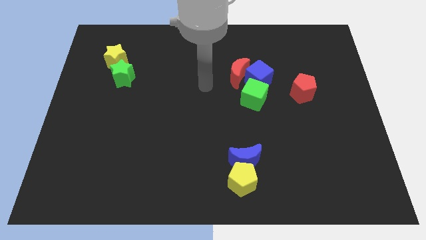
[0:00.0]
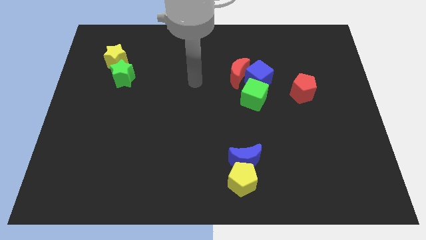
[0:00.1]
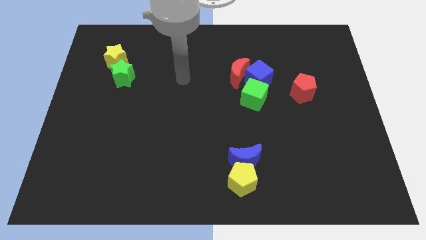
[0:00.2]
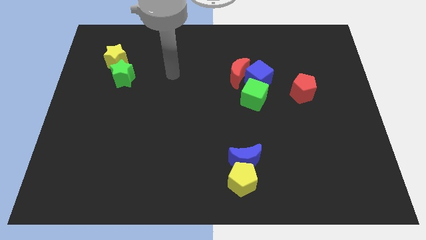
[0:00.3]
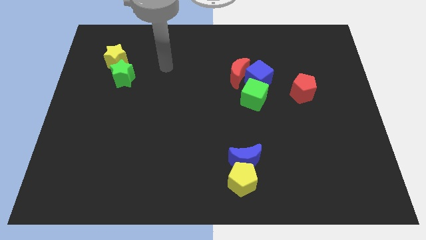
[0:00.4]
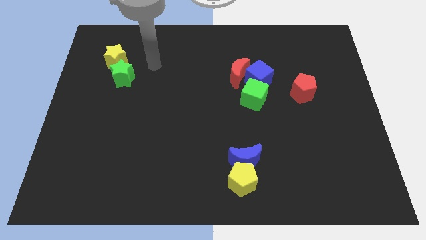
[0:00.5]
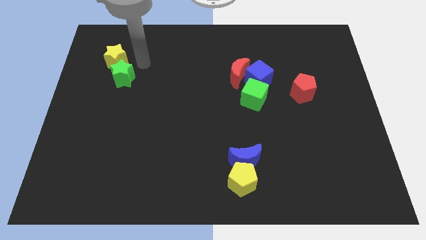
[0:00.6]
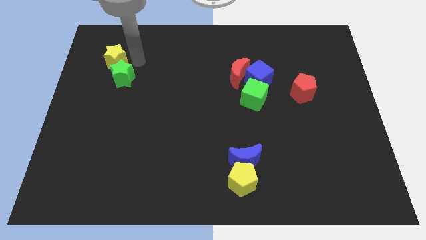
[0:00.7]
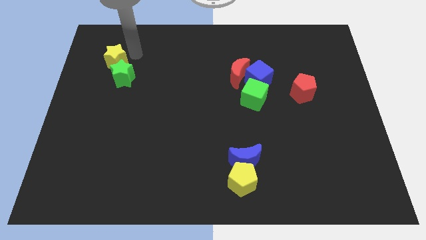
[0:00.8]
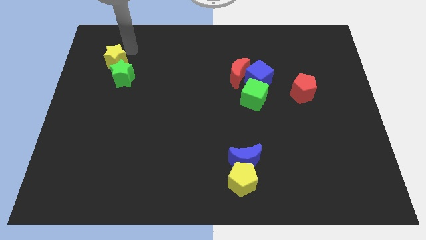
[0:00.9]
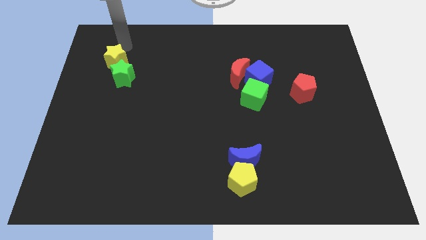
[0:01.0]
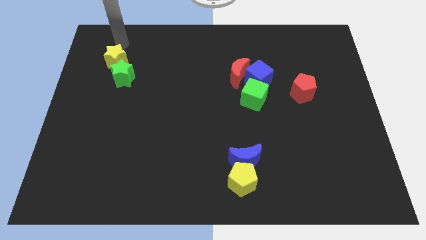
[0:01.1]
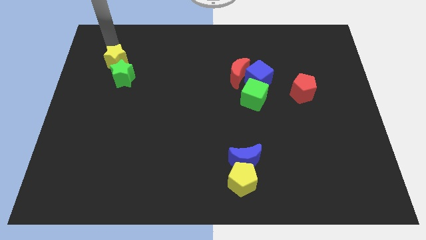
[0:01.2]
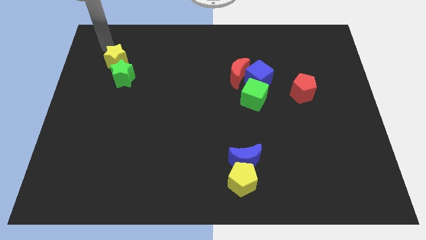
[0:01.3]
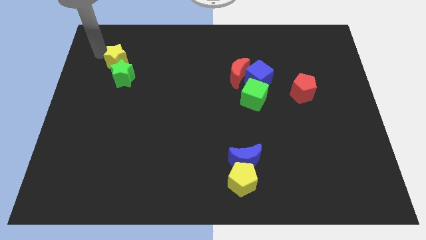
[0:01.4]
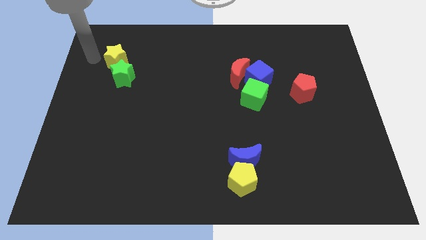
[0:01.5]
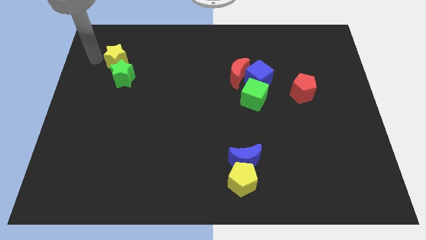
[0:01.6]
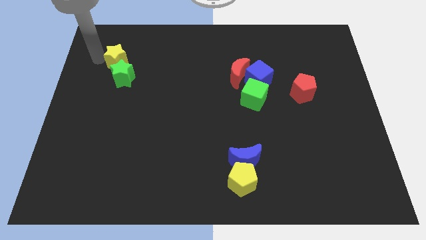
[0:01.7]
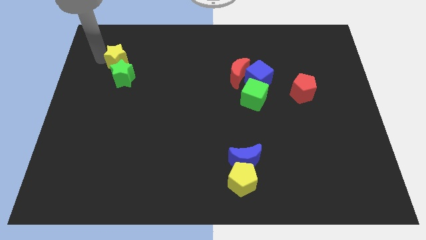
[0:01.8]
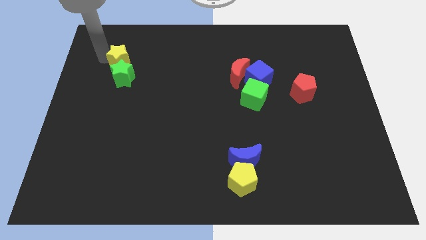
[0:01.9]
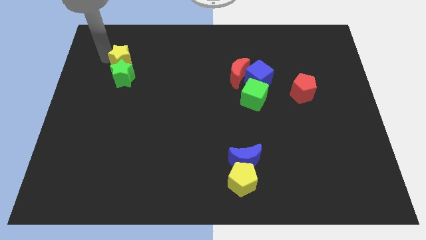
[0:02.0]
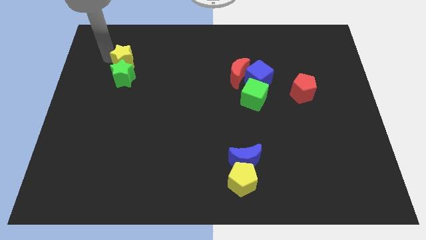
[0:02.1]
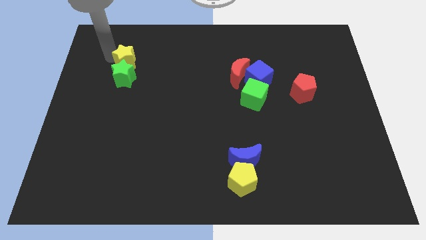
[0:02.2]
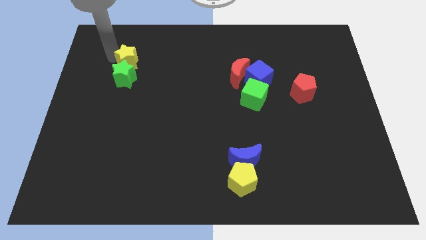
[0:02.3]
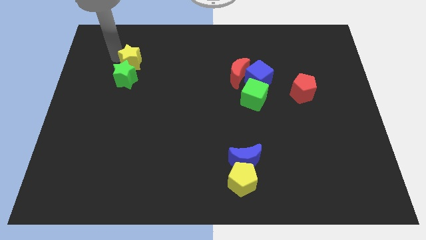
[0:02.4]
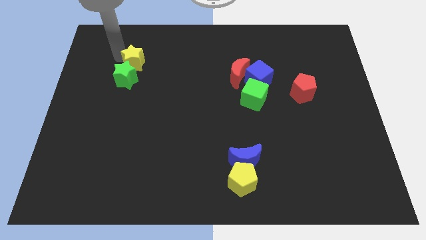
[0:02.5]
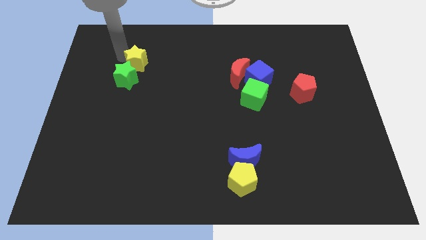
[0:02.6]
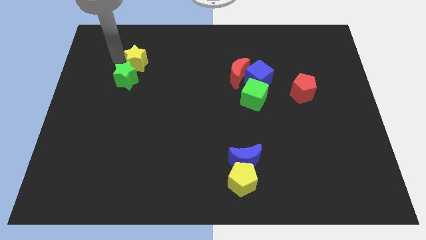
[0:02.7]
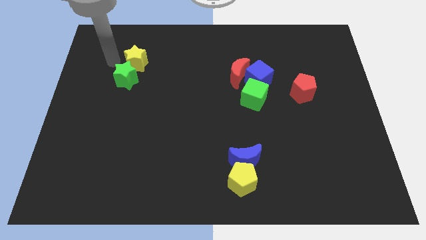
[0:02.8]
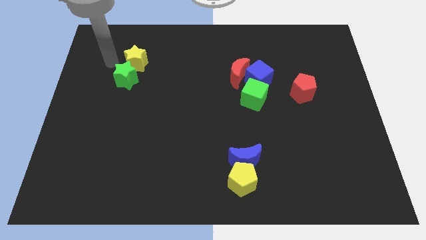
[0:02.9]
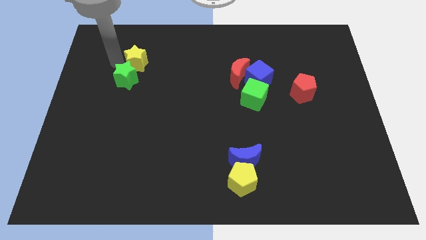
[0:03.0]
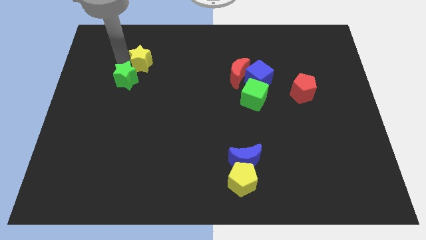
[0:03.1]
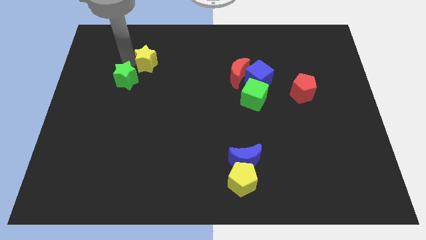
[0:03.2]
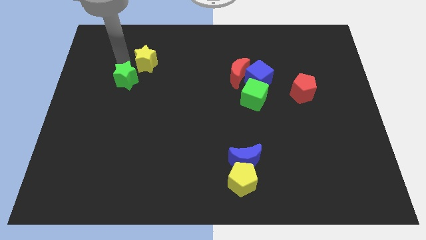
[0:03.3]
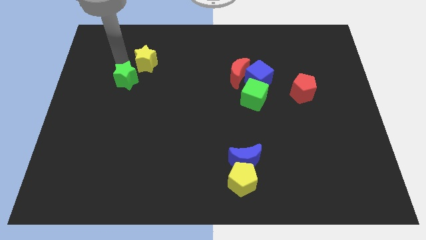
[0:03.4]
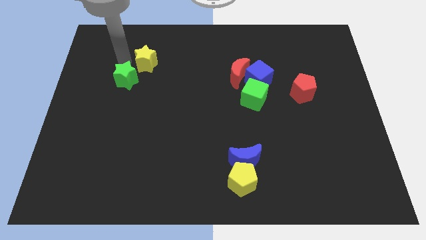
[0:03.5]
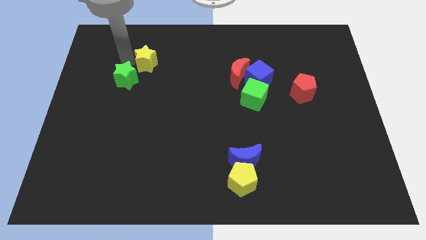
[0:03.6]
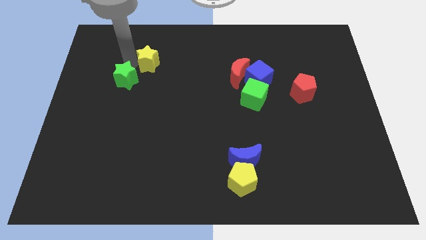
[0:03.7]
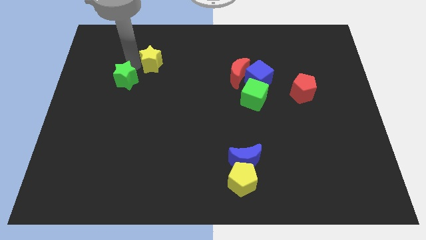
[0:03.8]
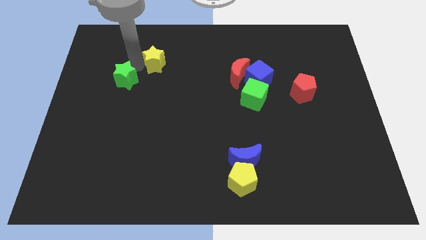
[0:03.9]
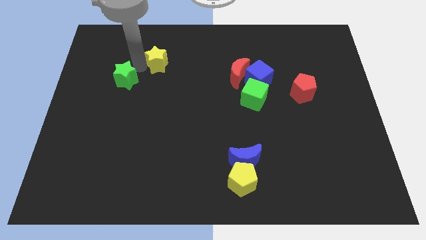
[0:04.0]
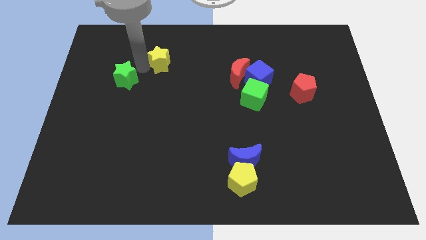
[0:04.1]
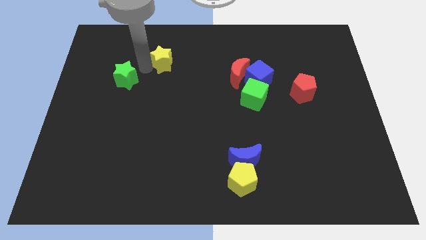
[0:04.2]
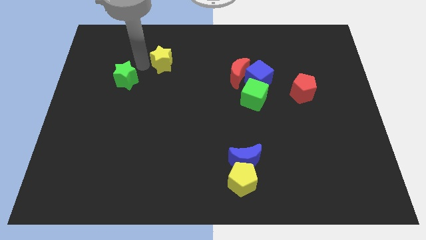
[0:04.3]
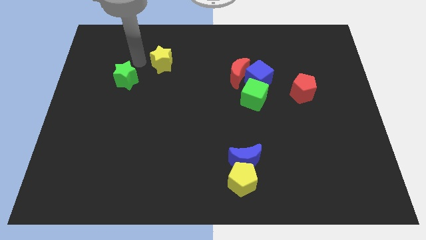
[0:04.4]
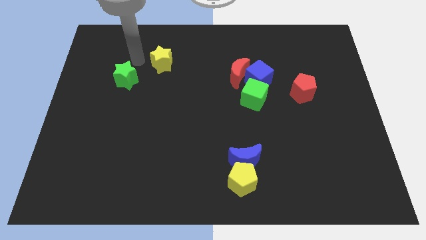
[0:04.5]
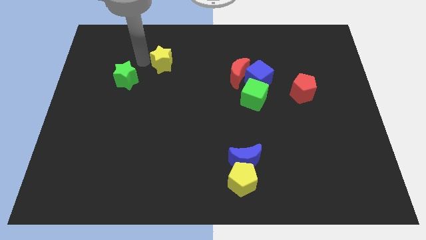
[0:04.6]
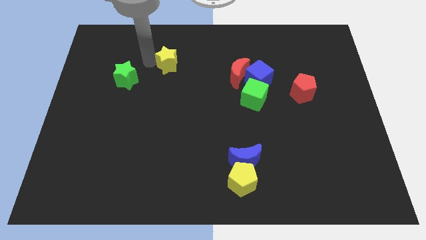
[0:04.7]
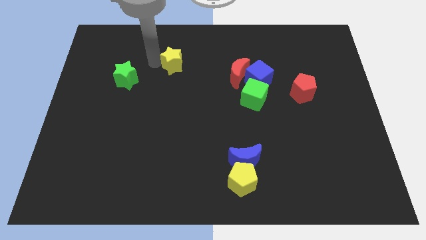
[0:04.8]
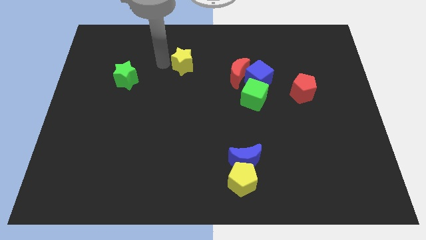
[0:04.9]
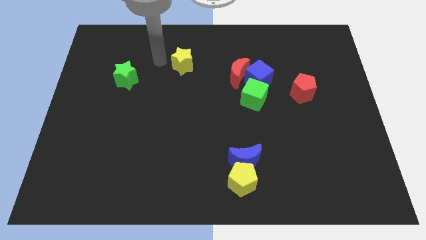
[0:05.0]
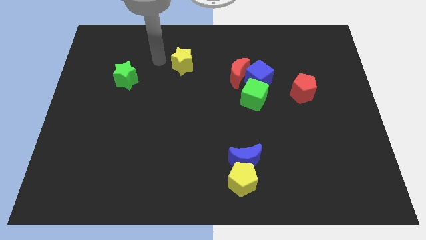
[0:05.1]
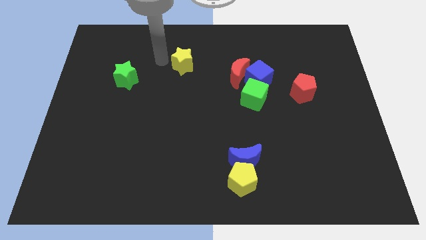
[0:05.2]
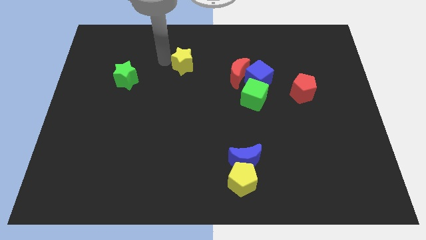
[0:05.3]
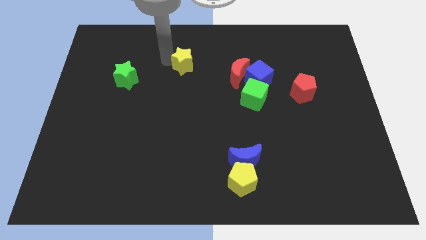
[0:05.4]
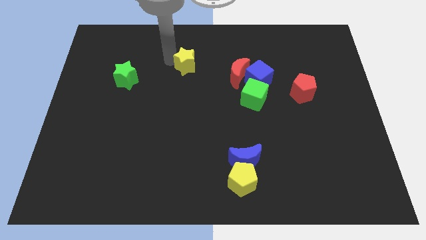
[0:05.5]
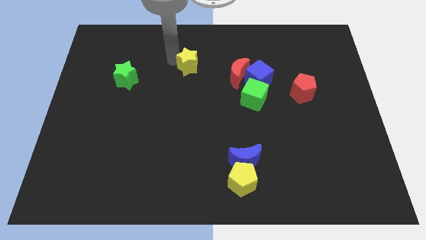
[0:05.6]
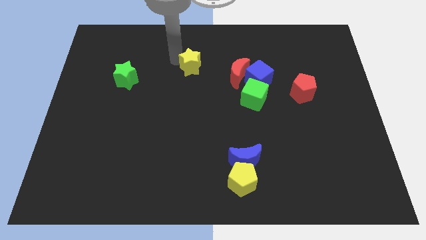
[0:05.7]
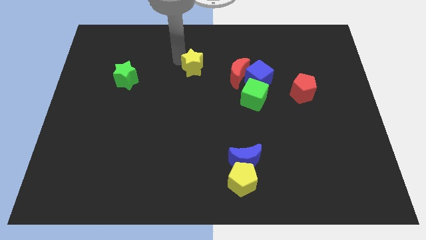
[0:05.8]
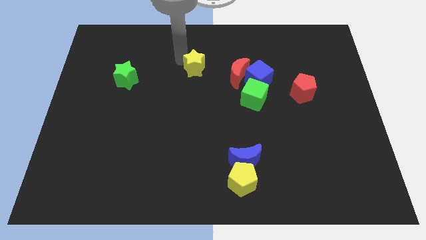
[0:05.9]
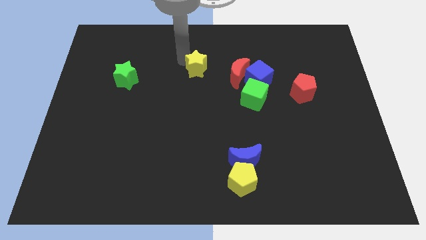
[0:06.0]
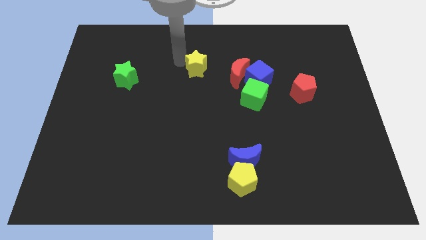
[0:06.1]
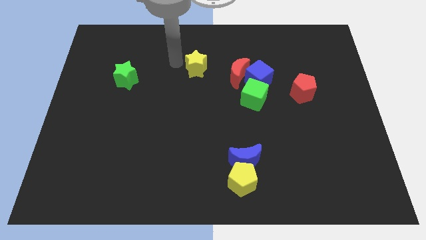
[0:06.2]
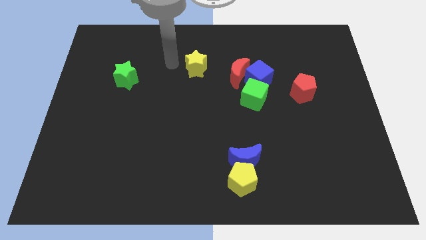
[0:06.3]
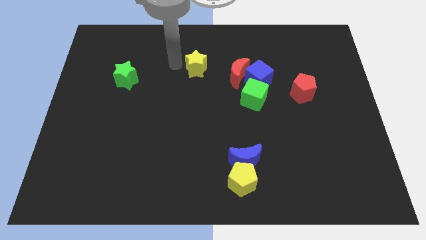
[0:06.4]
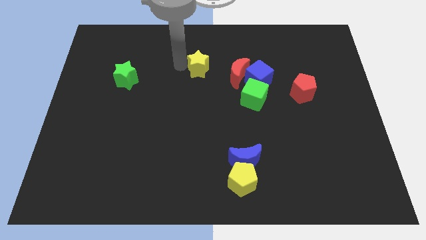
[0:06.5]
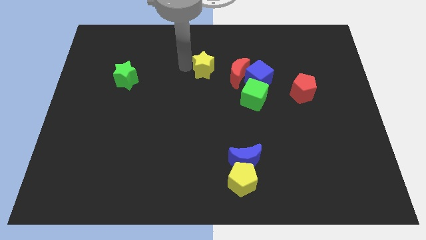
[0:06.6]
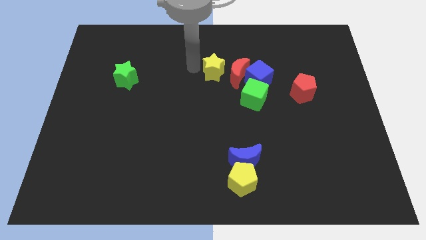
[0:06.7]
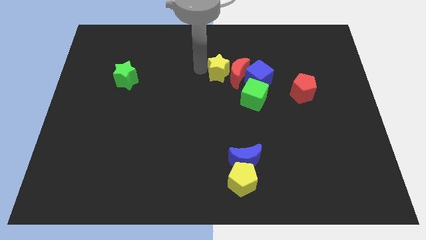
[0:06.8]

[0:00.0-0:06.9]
move the yellow star towards the red moon

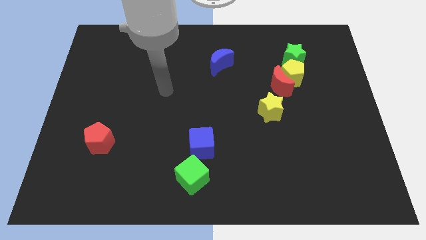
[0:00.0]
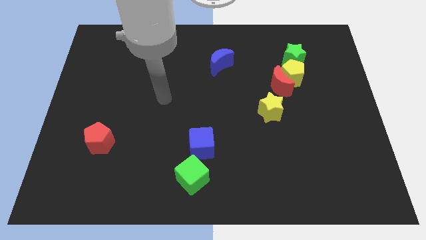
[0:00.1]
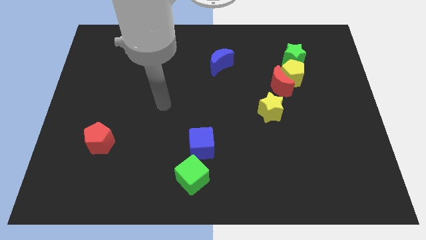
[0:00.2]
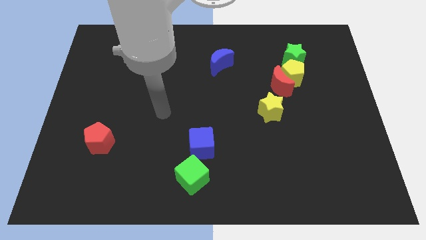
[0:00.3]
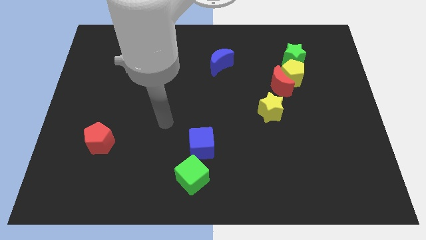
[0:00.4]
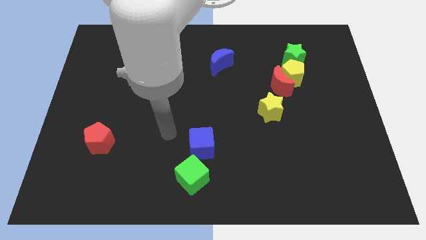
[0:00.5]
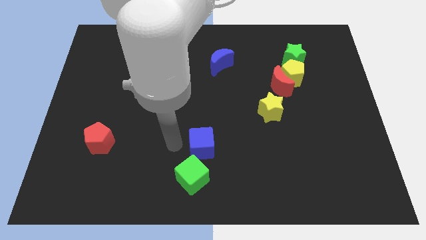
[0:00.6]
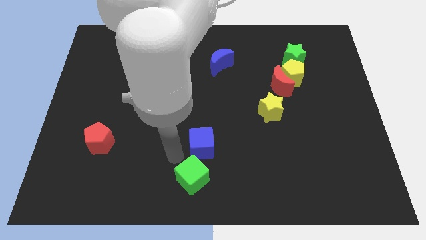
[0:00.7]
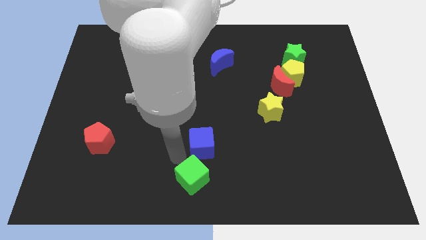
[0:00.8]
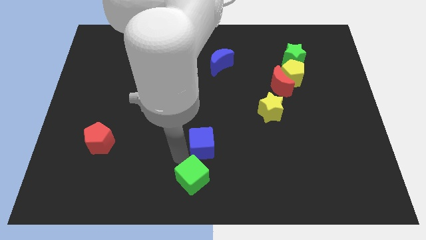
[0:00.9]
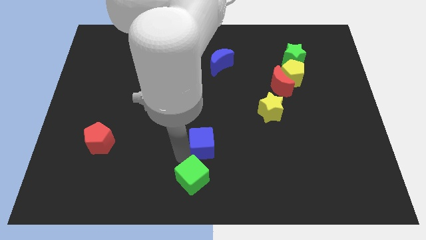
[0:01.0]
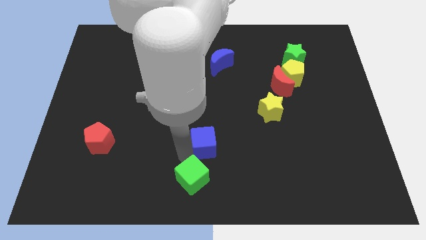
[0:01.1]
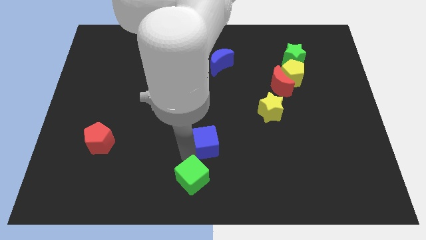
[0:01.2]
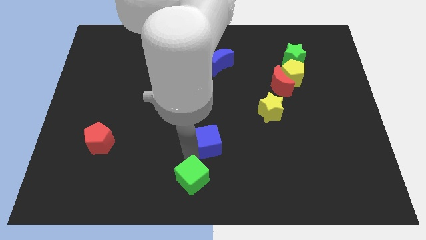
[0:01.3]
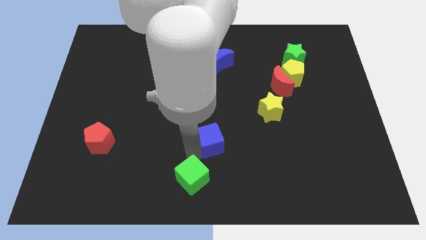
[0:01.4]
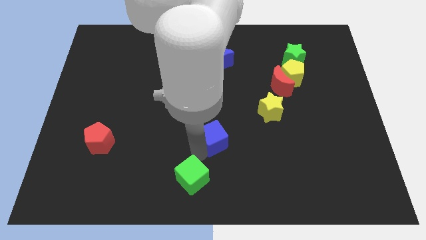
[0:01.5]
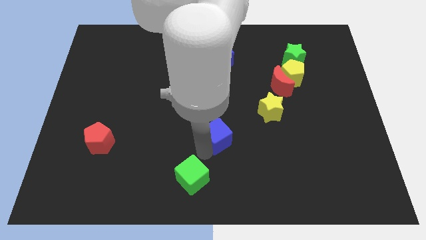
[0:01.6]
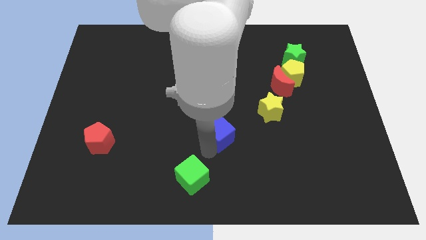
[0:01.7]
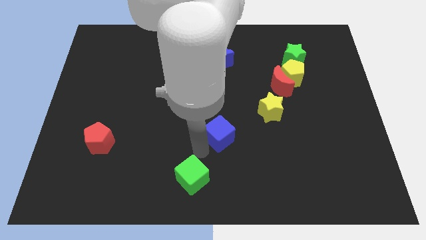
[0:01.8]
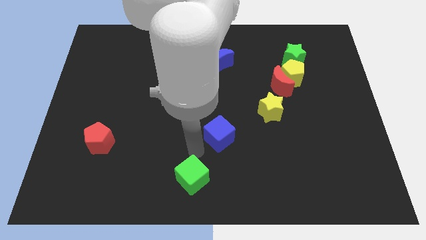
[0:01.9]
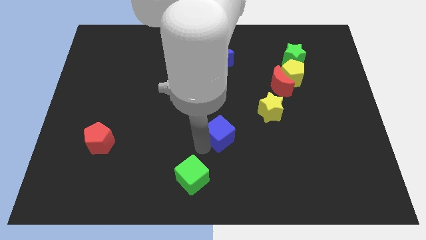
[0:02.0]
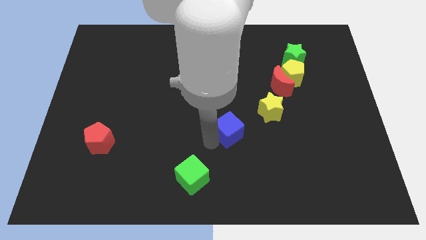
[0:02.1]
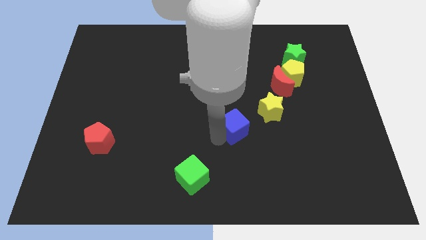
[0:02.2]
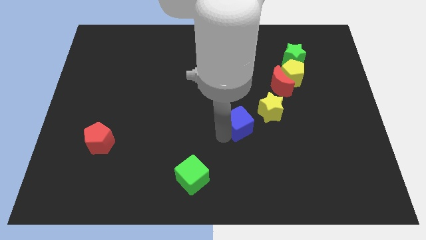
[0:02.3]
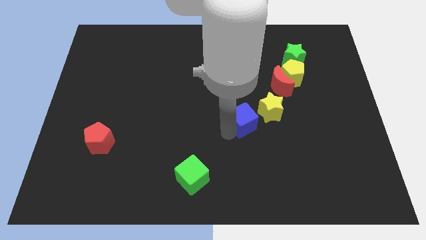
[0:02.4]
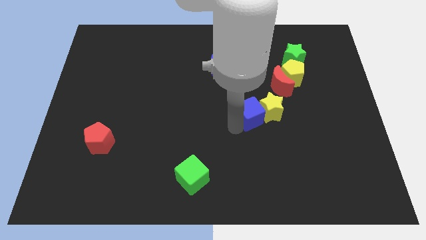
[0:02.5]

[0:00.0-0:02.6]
slide the blue cube next to the yellow star
